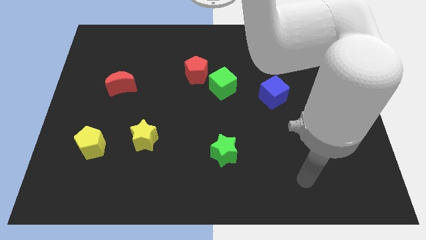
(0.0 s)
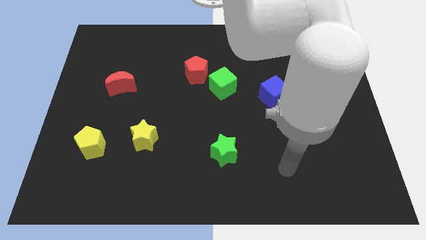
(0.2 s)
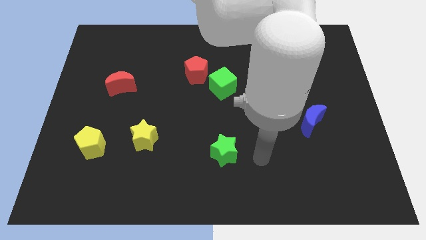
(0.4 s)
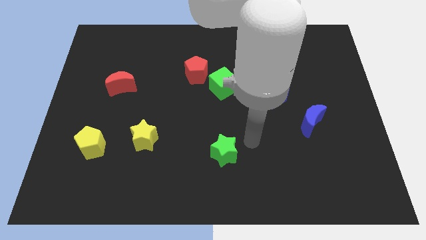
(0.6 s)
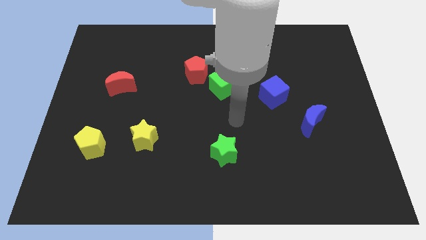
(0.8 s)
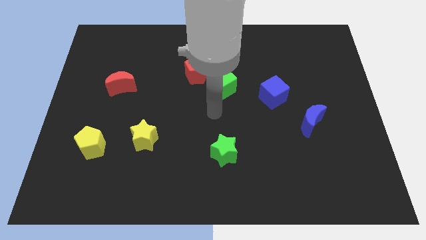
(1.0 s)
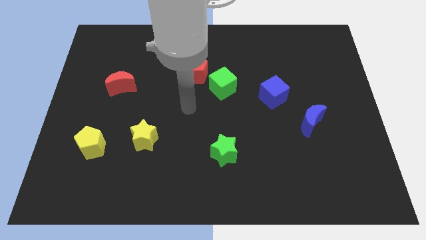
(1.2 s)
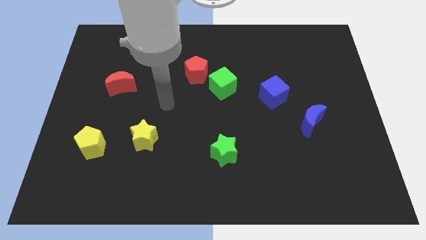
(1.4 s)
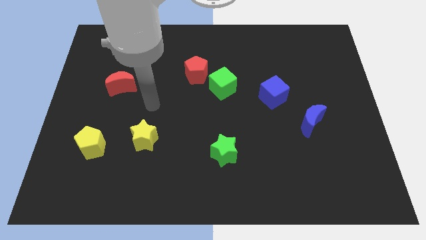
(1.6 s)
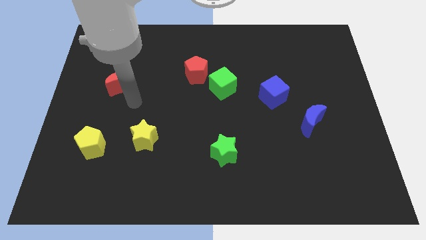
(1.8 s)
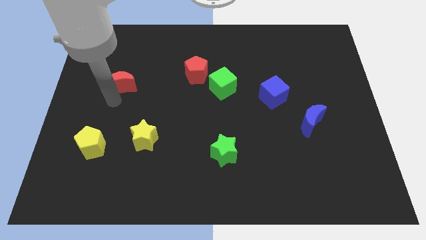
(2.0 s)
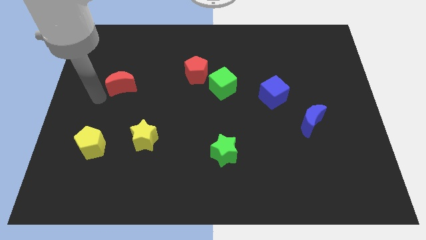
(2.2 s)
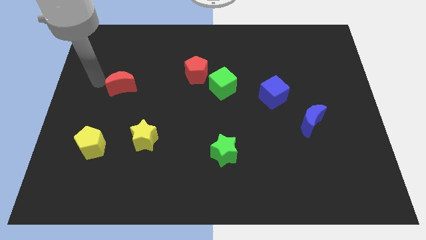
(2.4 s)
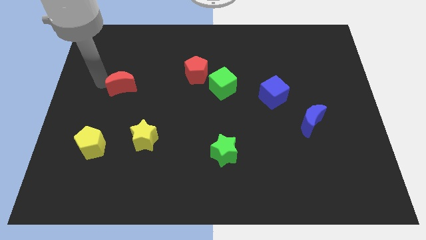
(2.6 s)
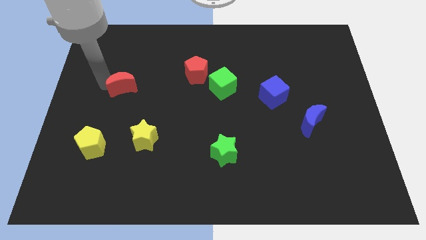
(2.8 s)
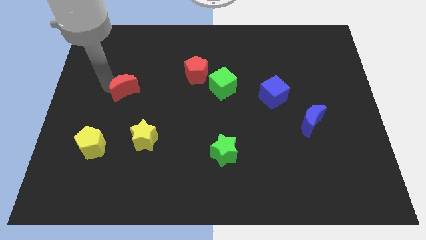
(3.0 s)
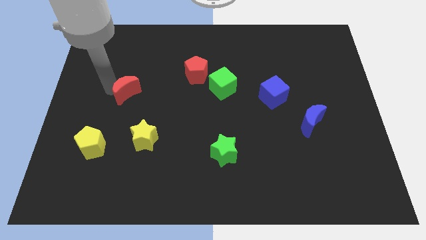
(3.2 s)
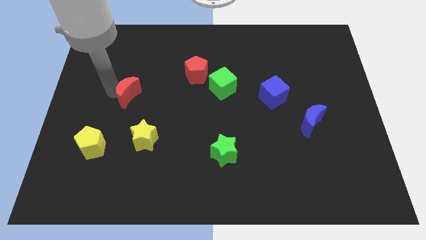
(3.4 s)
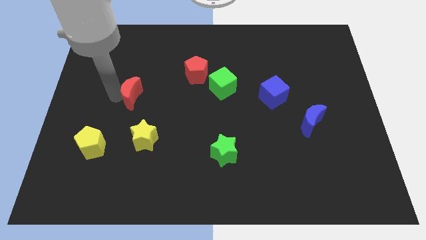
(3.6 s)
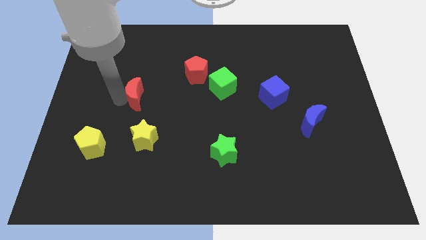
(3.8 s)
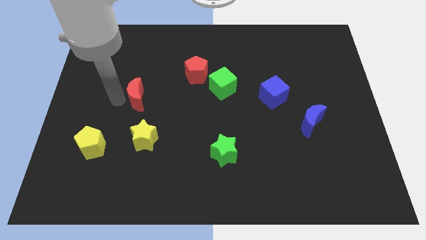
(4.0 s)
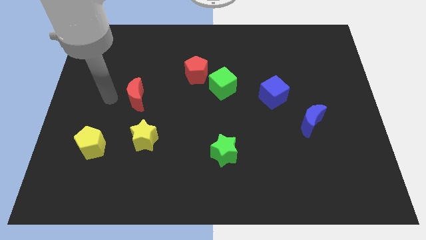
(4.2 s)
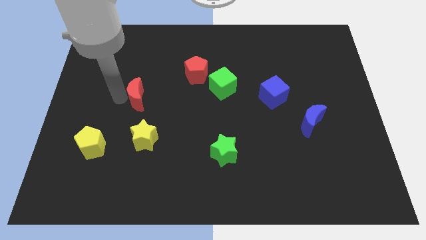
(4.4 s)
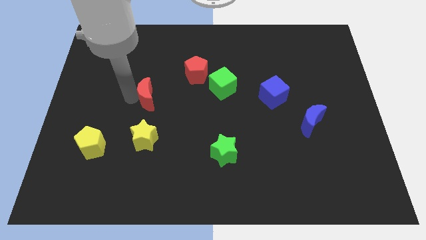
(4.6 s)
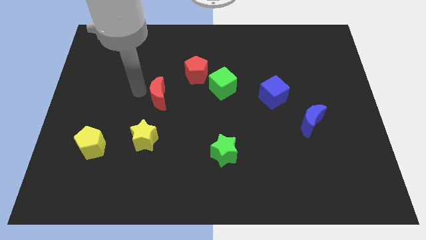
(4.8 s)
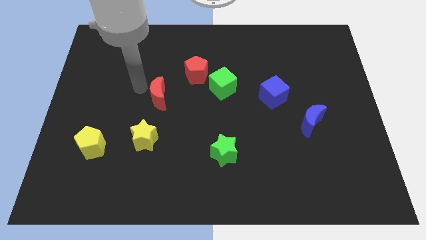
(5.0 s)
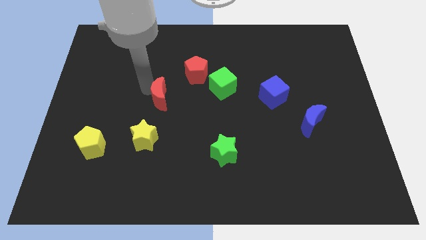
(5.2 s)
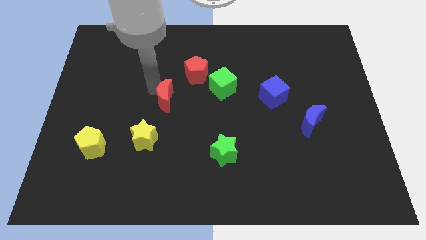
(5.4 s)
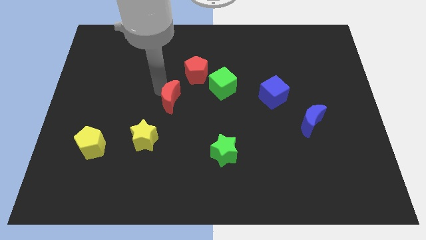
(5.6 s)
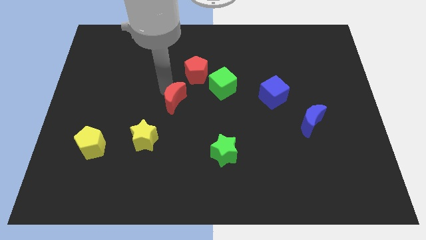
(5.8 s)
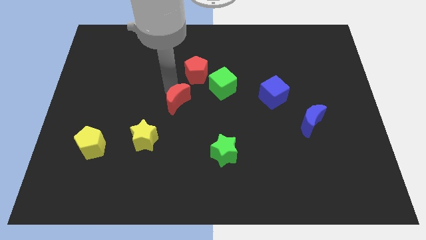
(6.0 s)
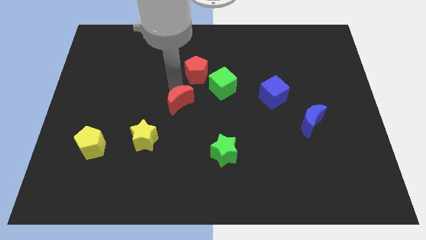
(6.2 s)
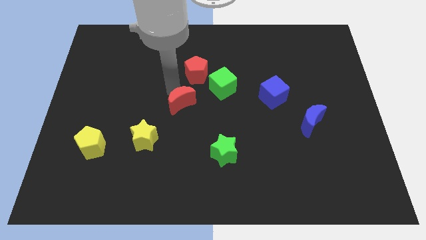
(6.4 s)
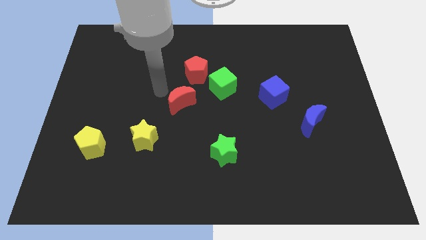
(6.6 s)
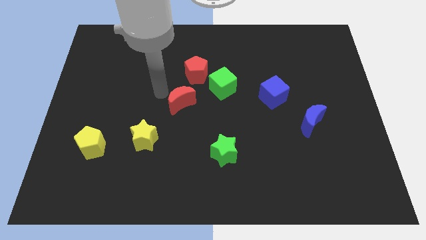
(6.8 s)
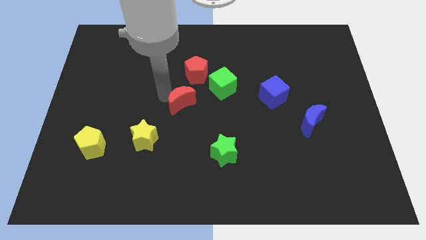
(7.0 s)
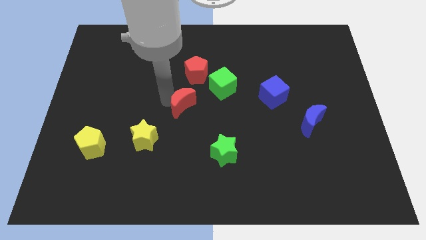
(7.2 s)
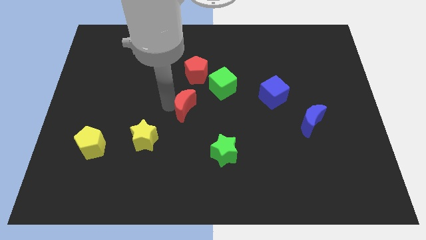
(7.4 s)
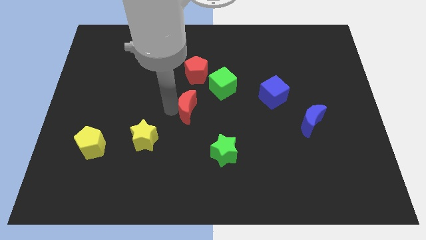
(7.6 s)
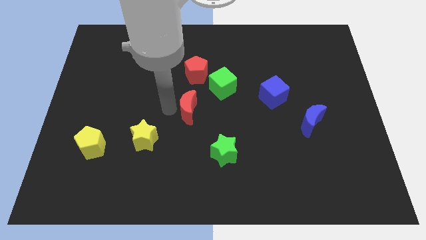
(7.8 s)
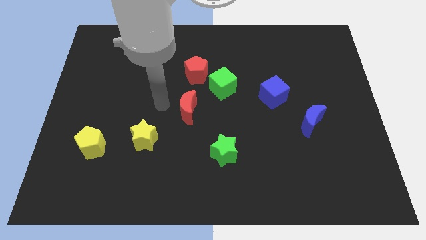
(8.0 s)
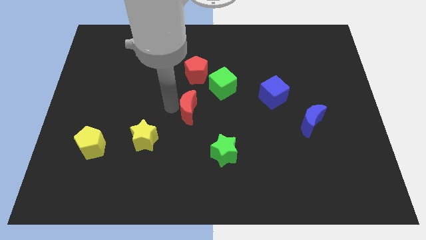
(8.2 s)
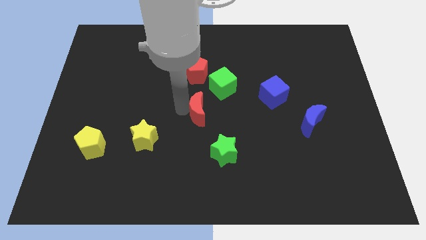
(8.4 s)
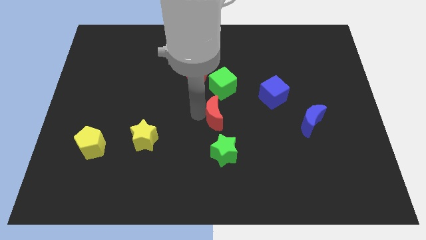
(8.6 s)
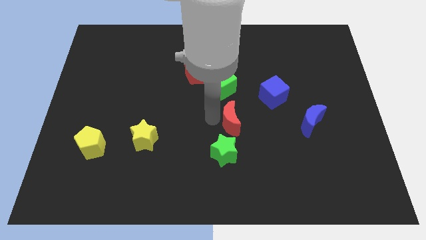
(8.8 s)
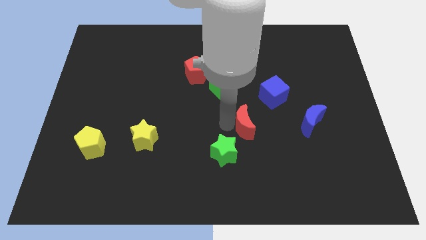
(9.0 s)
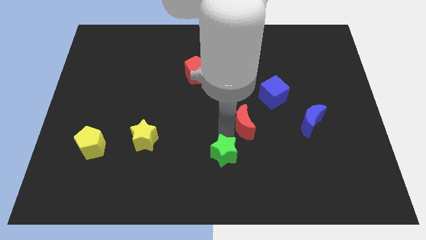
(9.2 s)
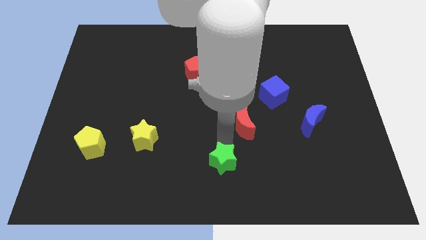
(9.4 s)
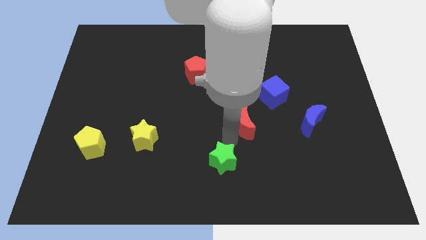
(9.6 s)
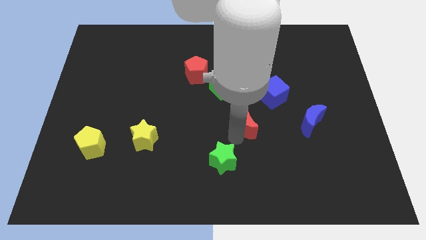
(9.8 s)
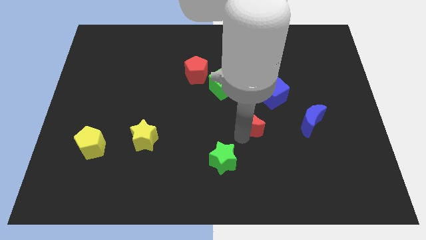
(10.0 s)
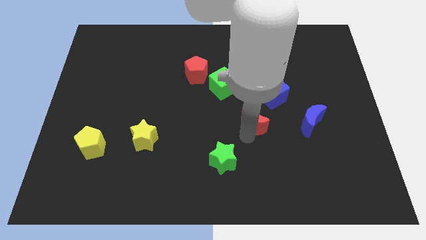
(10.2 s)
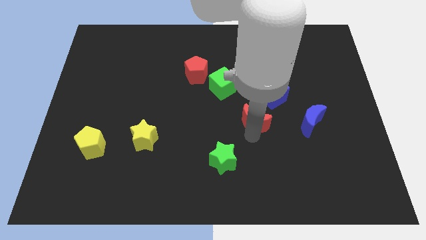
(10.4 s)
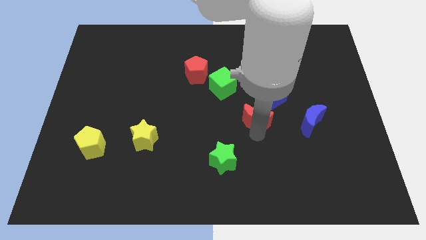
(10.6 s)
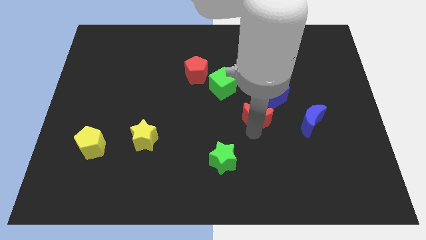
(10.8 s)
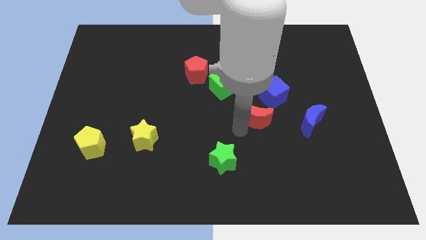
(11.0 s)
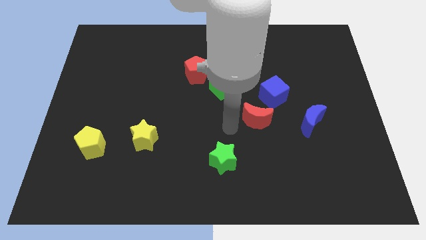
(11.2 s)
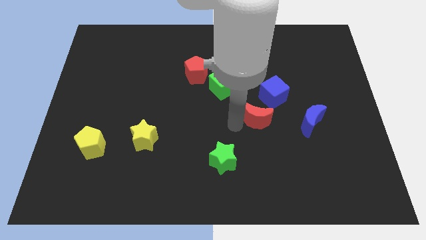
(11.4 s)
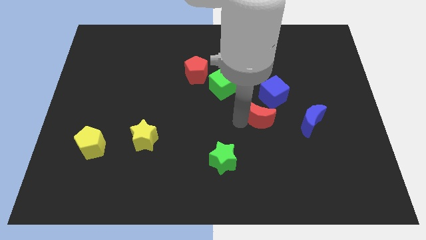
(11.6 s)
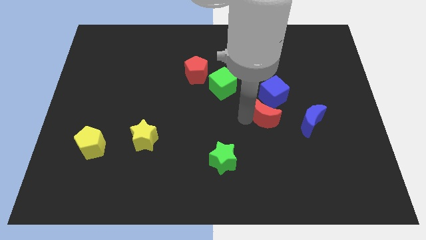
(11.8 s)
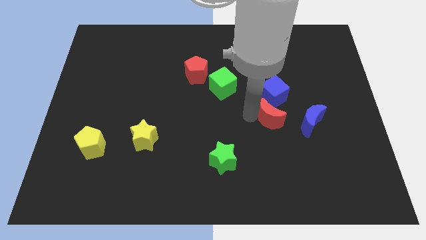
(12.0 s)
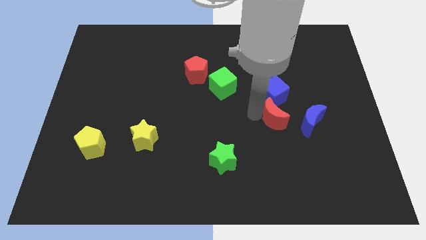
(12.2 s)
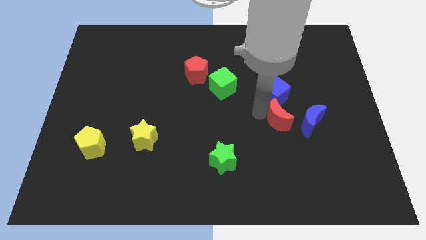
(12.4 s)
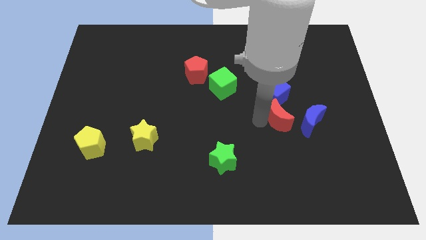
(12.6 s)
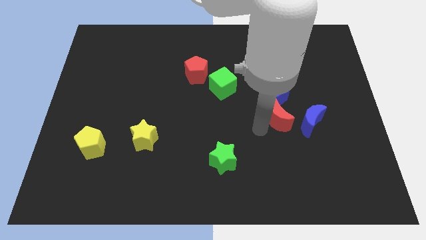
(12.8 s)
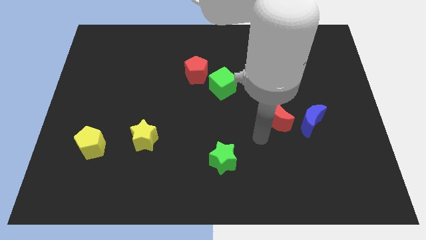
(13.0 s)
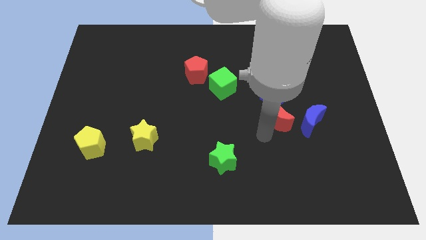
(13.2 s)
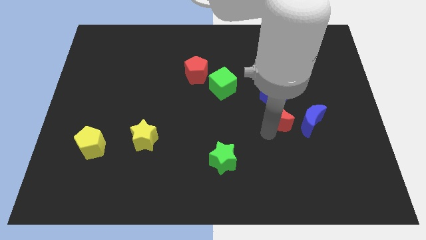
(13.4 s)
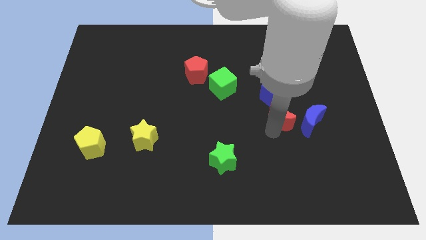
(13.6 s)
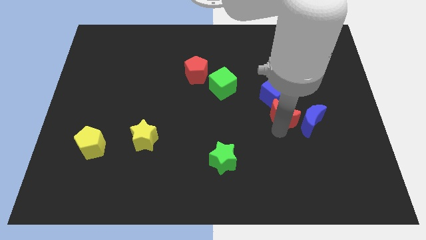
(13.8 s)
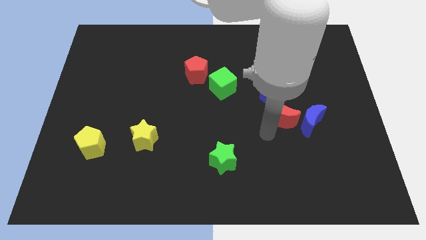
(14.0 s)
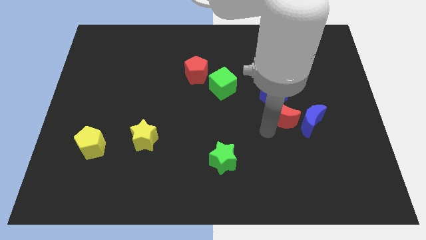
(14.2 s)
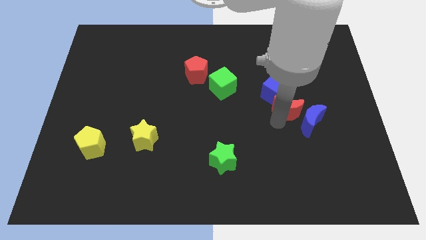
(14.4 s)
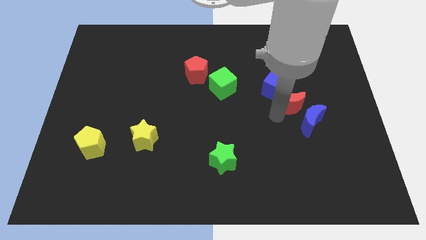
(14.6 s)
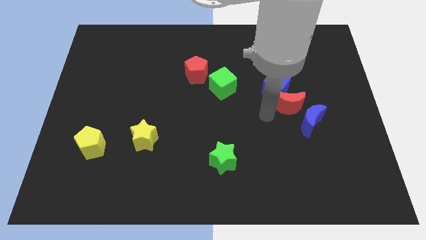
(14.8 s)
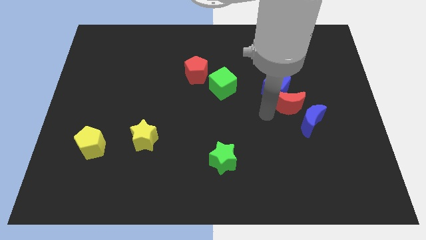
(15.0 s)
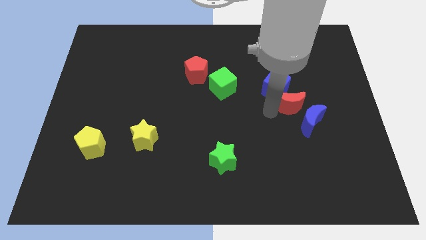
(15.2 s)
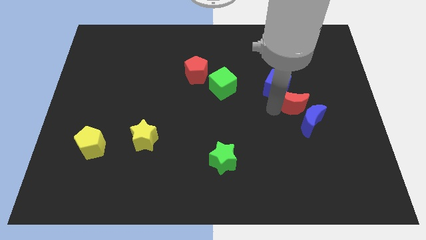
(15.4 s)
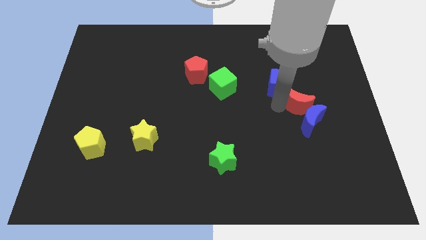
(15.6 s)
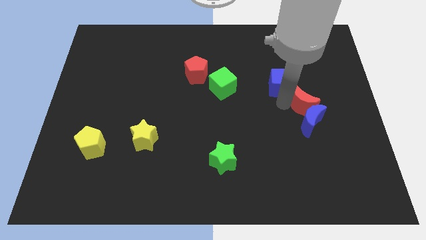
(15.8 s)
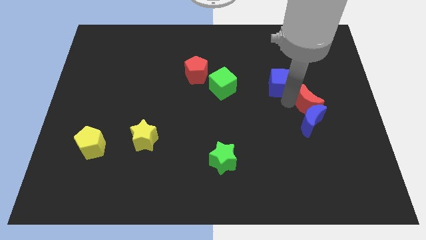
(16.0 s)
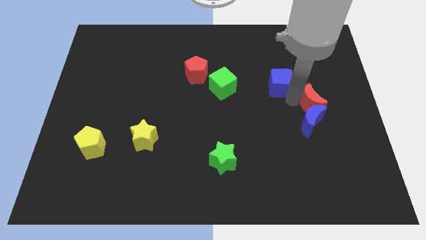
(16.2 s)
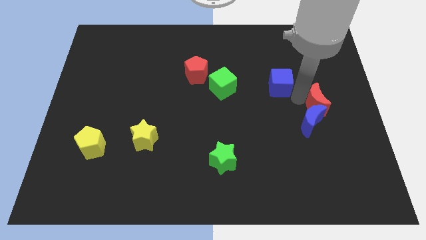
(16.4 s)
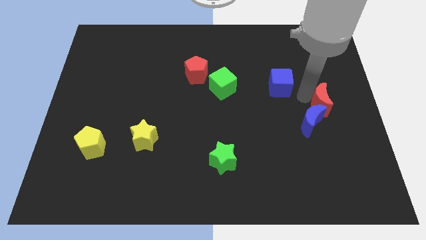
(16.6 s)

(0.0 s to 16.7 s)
put the red moon to the right side of the board
